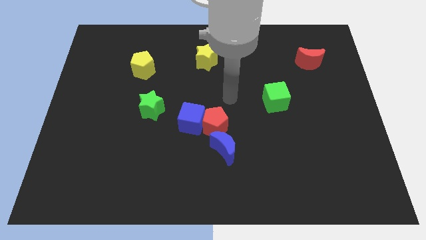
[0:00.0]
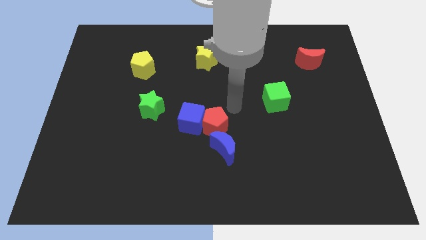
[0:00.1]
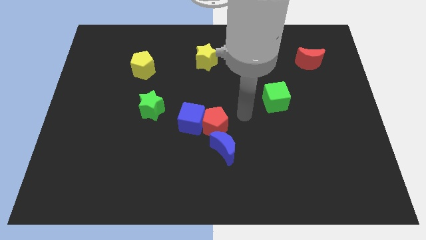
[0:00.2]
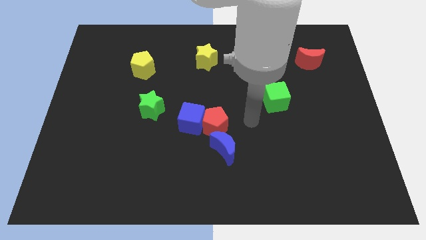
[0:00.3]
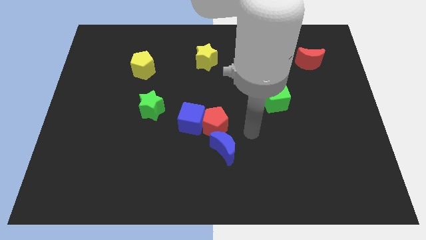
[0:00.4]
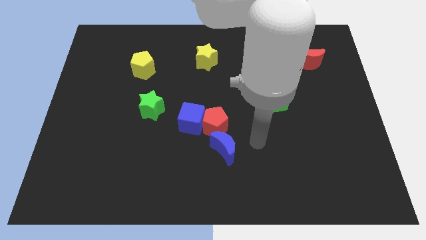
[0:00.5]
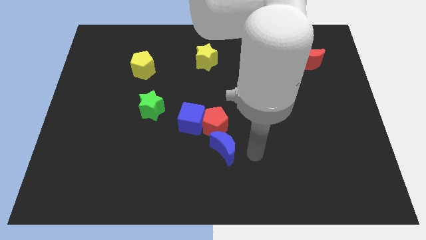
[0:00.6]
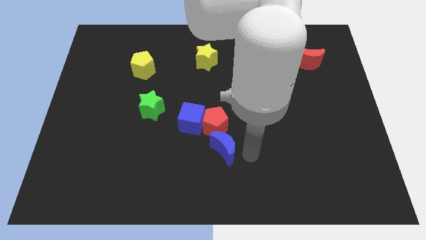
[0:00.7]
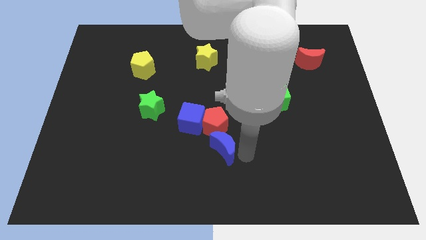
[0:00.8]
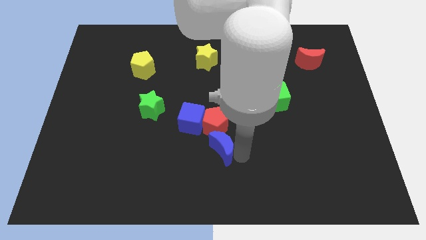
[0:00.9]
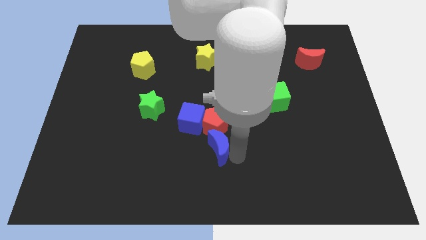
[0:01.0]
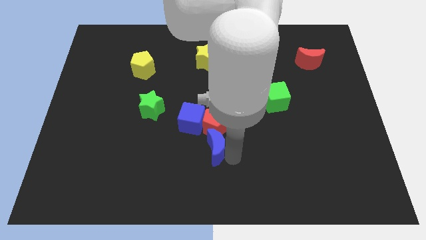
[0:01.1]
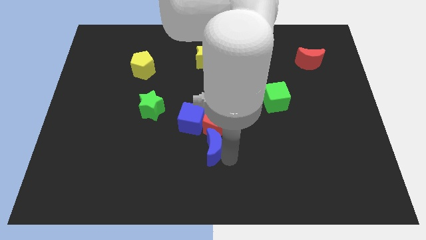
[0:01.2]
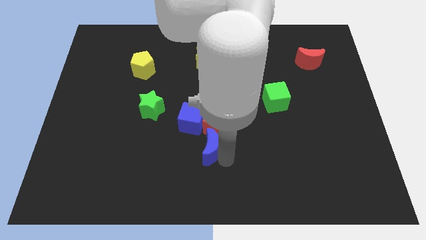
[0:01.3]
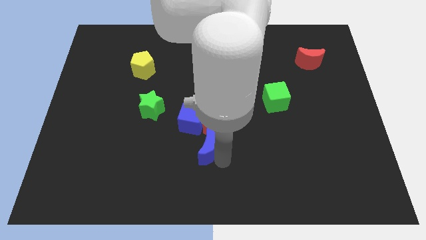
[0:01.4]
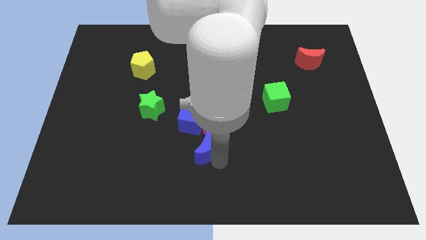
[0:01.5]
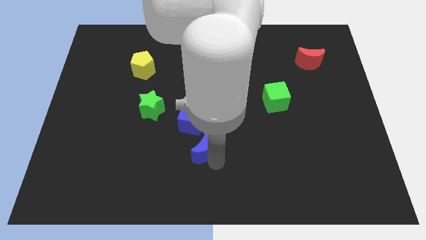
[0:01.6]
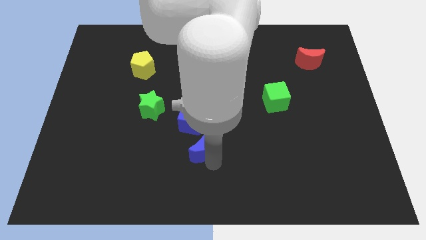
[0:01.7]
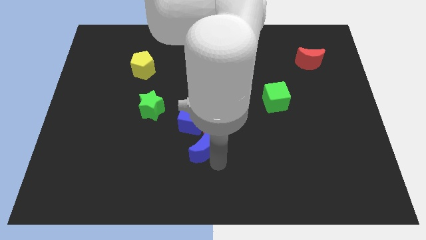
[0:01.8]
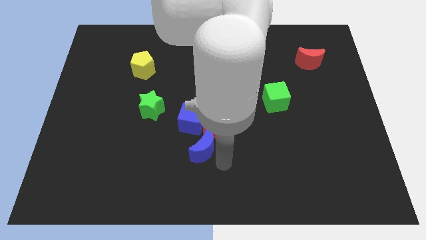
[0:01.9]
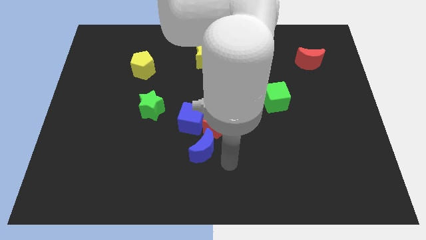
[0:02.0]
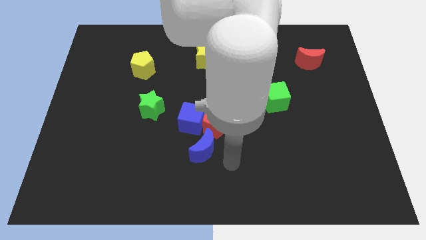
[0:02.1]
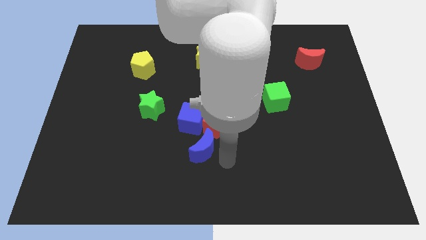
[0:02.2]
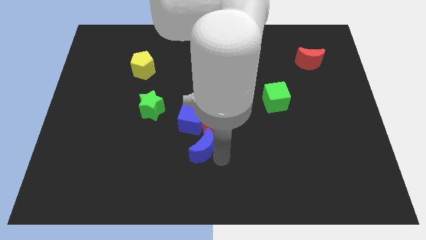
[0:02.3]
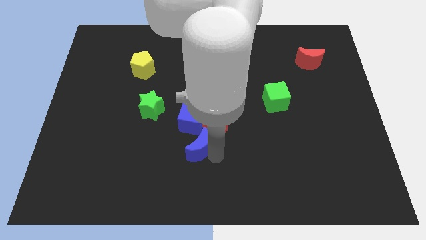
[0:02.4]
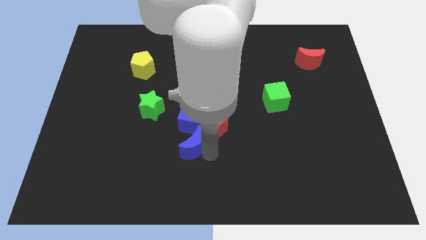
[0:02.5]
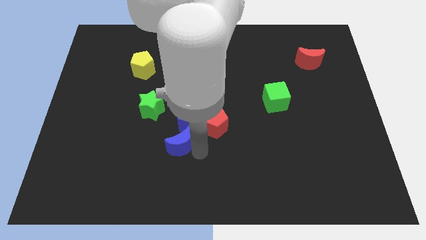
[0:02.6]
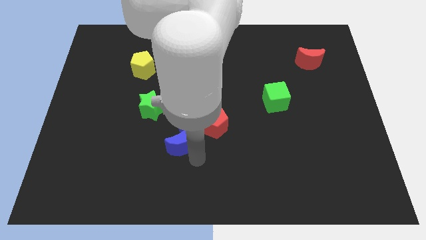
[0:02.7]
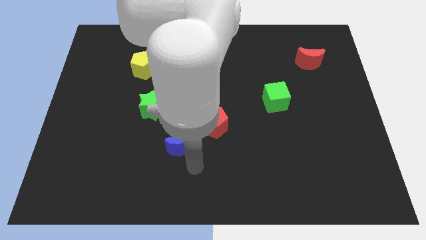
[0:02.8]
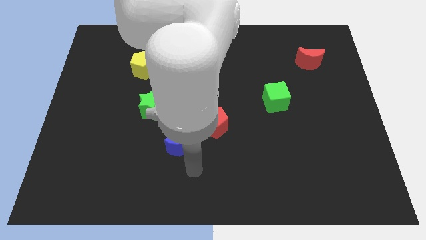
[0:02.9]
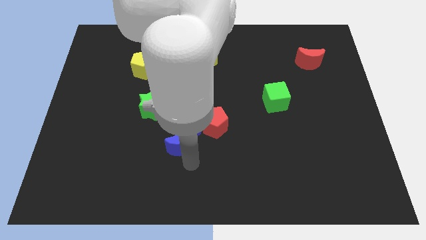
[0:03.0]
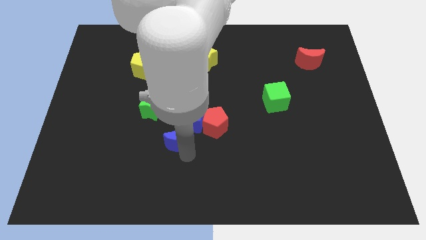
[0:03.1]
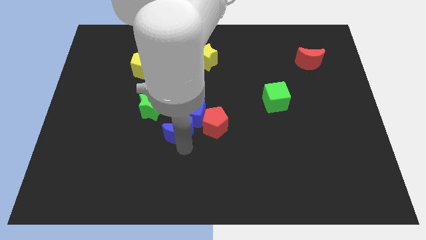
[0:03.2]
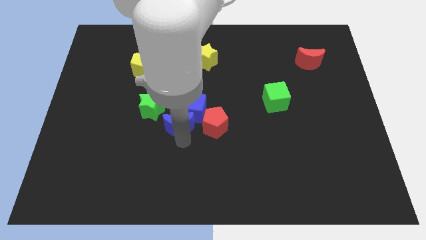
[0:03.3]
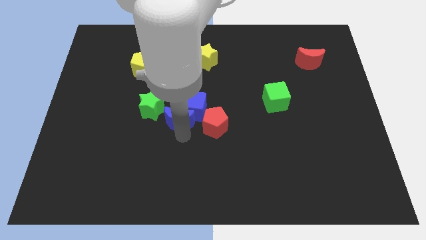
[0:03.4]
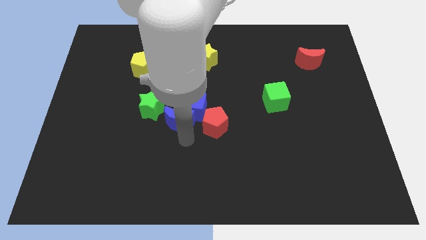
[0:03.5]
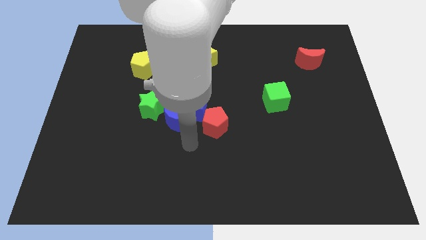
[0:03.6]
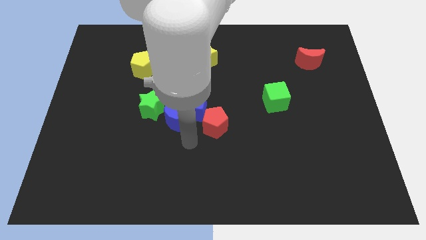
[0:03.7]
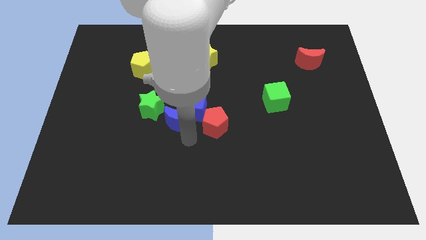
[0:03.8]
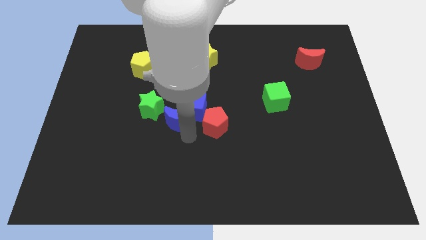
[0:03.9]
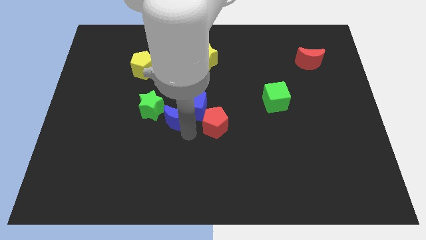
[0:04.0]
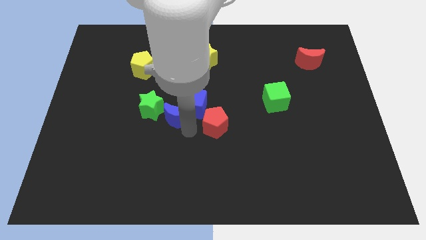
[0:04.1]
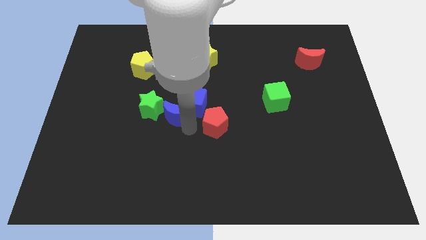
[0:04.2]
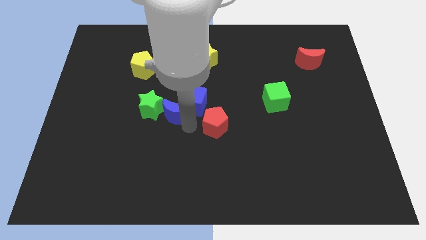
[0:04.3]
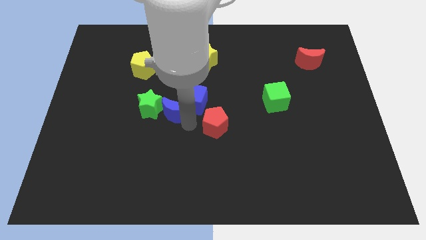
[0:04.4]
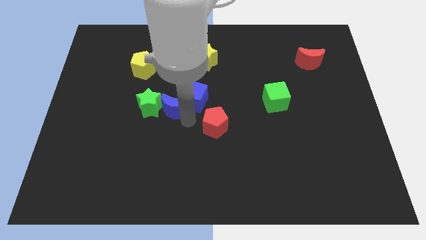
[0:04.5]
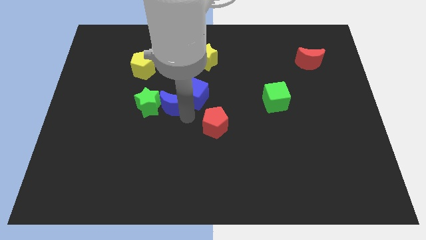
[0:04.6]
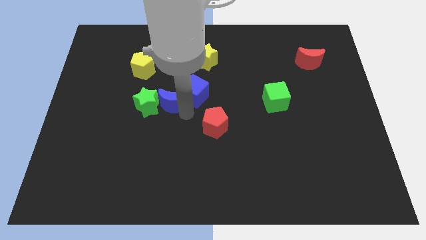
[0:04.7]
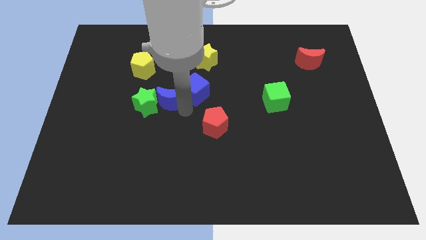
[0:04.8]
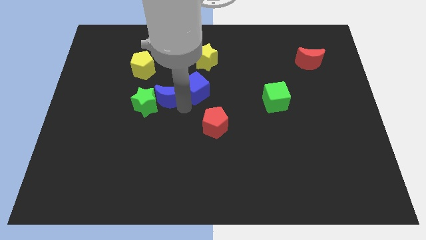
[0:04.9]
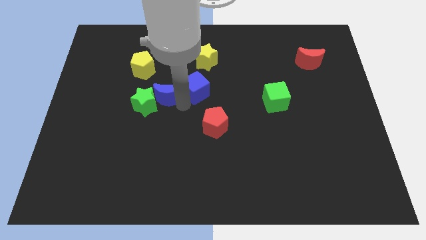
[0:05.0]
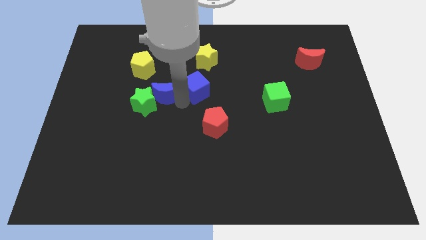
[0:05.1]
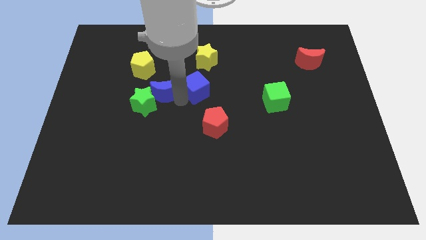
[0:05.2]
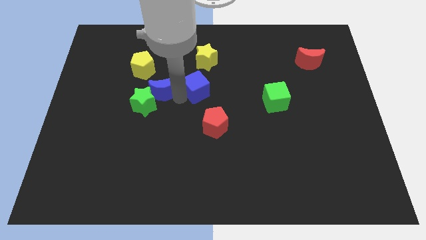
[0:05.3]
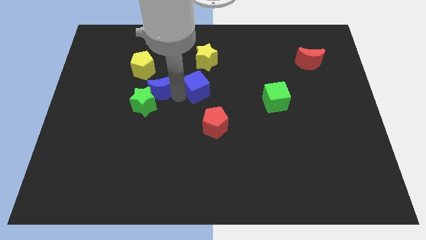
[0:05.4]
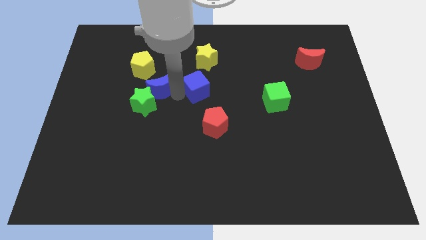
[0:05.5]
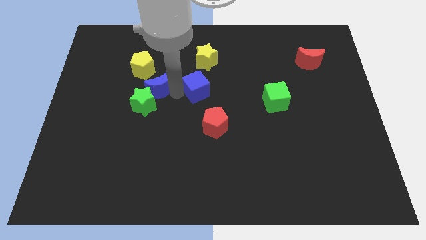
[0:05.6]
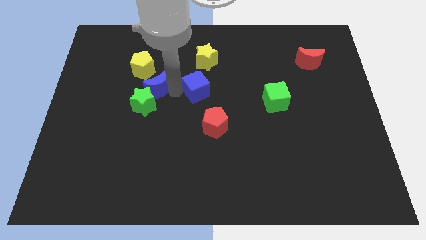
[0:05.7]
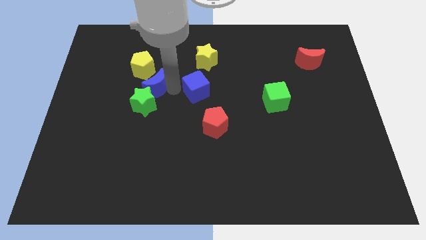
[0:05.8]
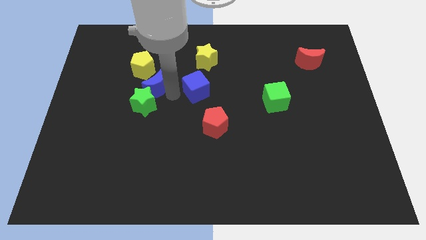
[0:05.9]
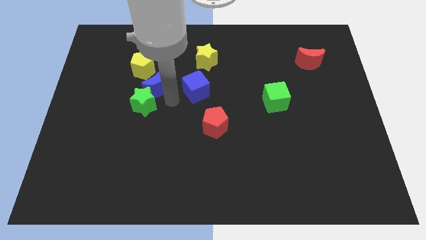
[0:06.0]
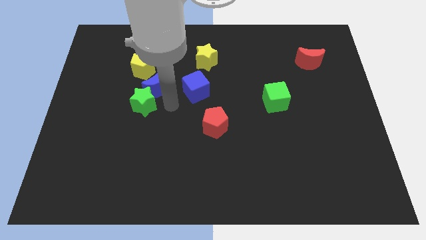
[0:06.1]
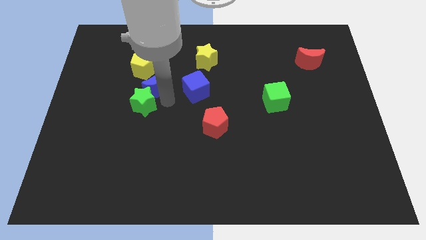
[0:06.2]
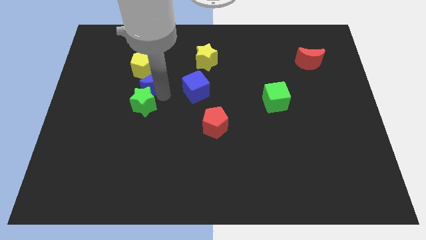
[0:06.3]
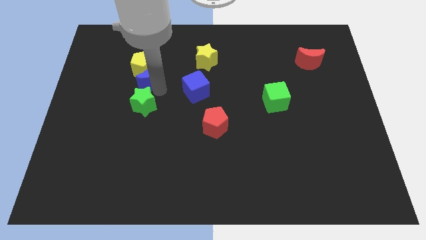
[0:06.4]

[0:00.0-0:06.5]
push the blue moon towards the yellow pentagon

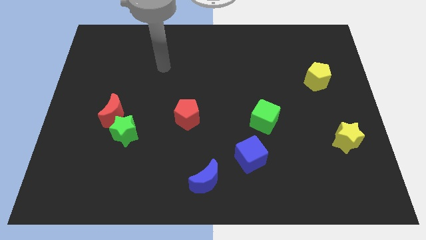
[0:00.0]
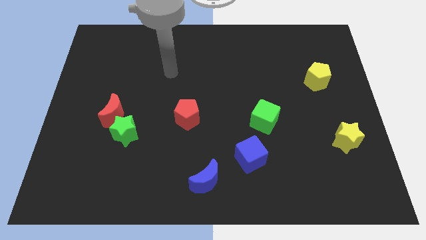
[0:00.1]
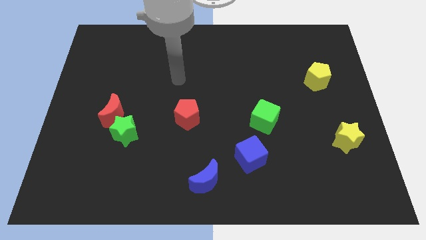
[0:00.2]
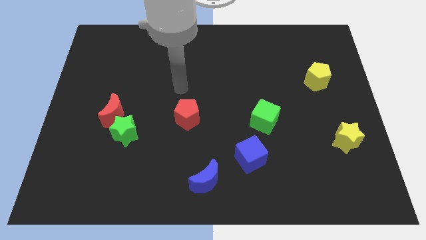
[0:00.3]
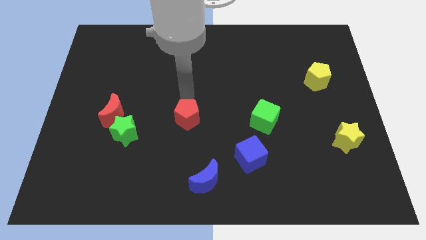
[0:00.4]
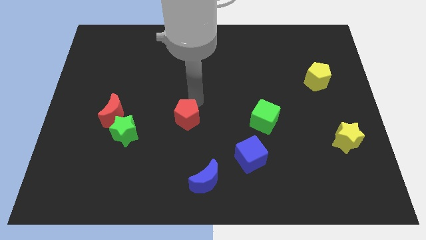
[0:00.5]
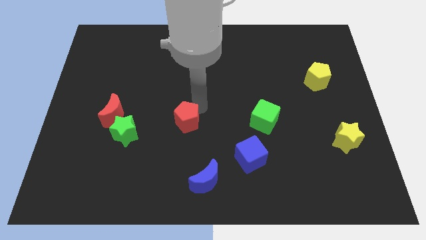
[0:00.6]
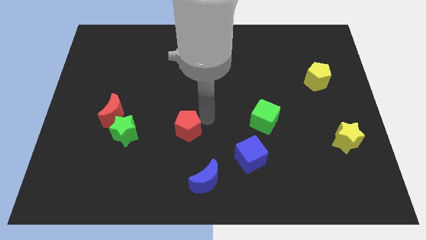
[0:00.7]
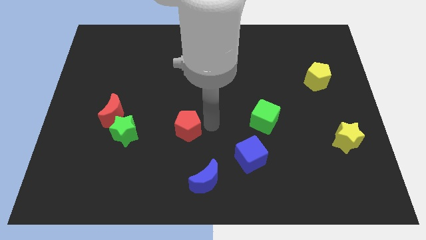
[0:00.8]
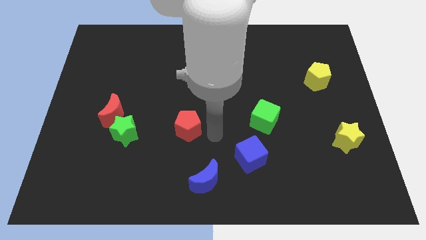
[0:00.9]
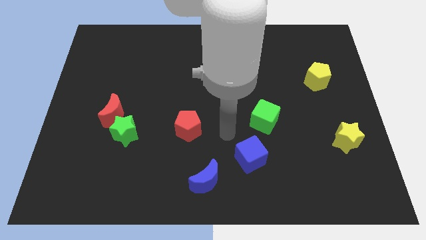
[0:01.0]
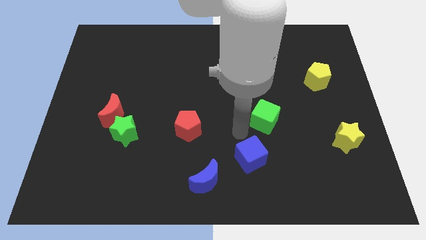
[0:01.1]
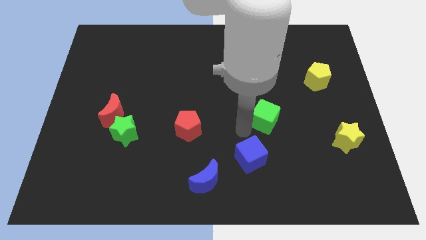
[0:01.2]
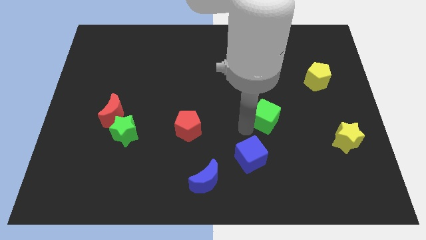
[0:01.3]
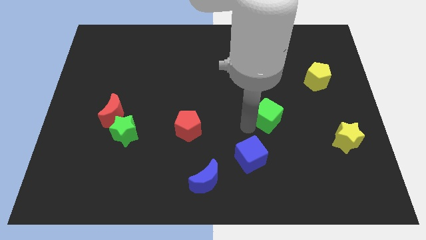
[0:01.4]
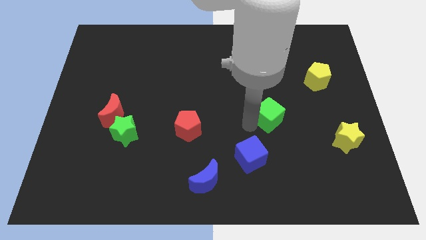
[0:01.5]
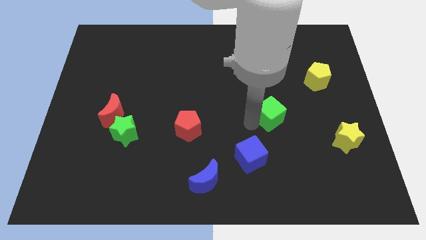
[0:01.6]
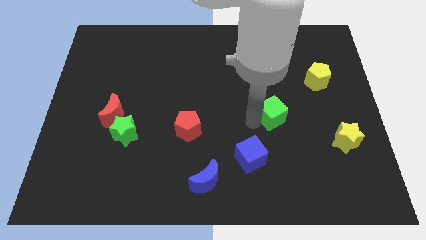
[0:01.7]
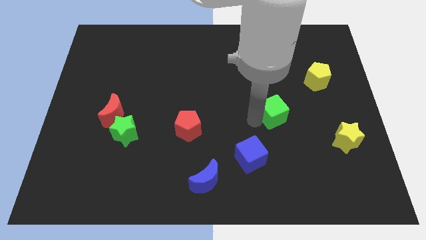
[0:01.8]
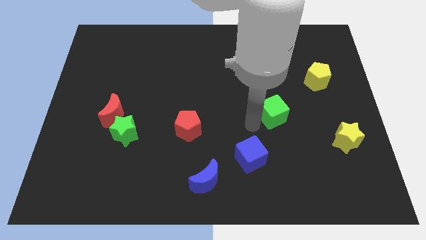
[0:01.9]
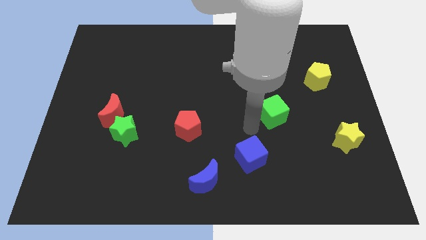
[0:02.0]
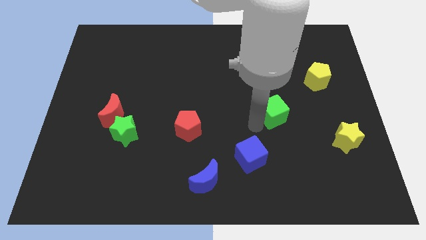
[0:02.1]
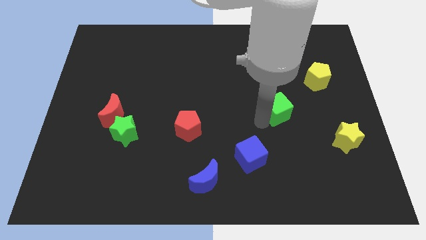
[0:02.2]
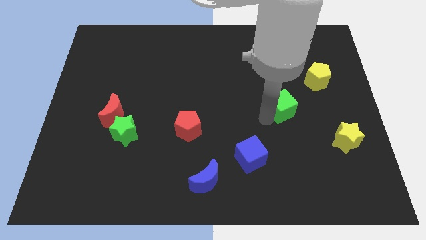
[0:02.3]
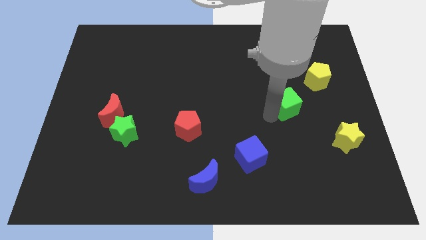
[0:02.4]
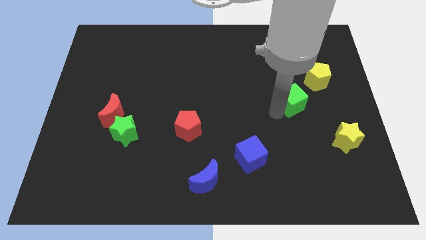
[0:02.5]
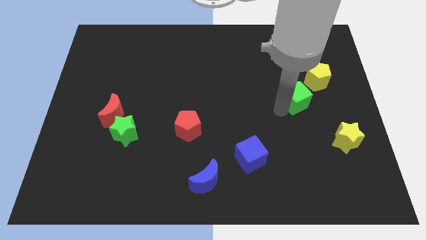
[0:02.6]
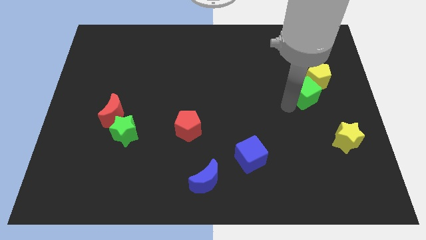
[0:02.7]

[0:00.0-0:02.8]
push the green cube to the yellow pentagon
